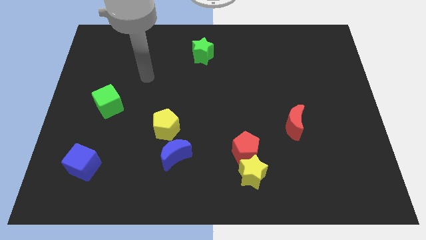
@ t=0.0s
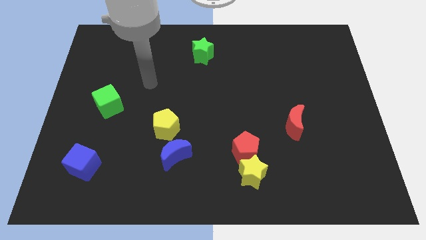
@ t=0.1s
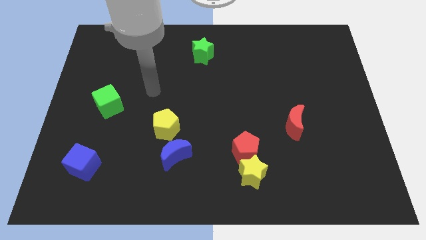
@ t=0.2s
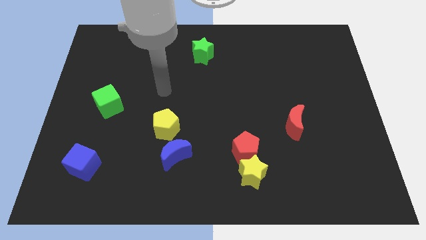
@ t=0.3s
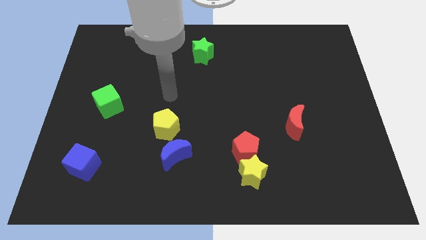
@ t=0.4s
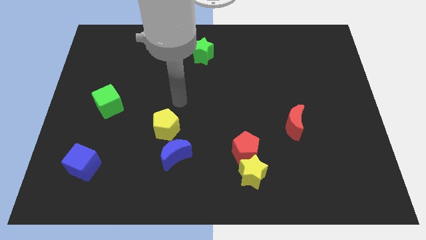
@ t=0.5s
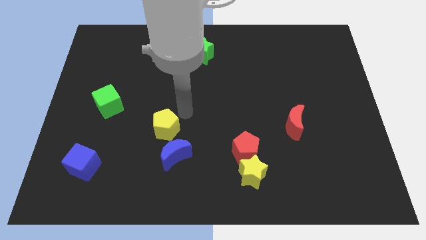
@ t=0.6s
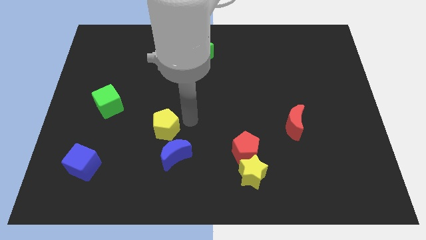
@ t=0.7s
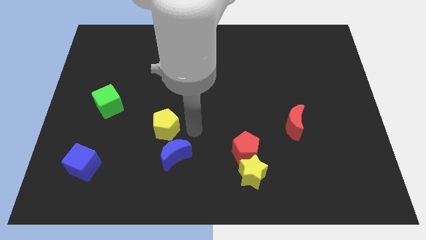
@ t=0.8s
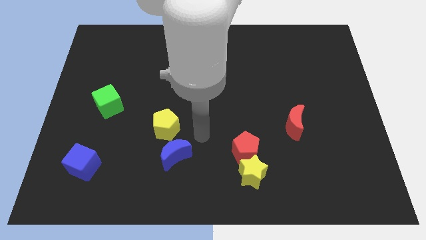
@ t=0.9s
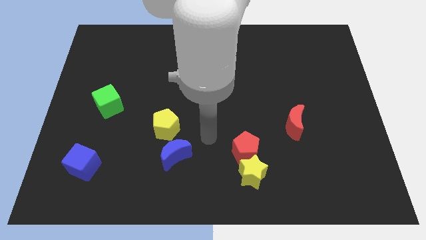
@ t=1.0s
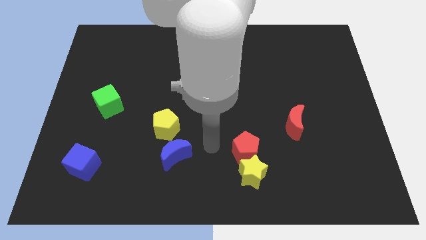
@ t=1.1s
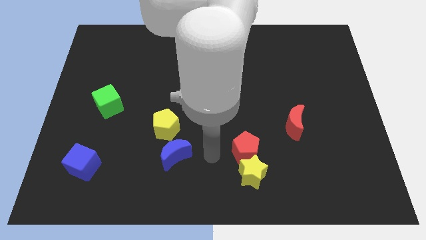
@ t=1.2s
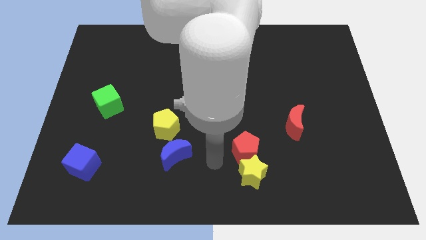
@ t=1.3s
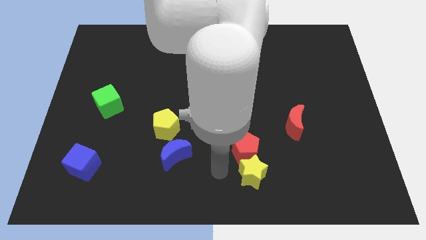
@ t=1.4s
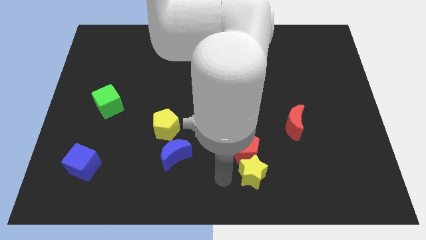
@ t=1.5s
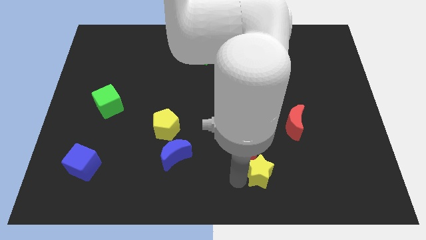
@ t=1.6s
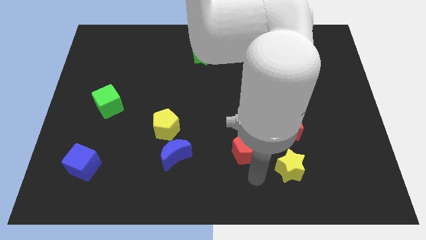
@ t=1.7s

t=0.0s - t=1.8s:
pull the red pentagon apart from the yellow star

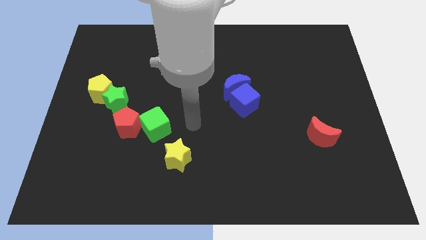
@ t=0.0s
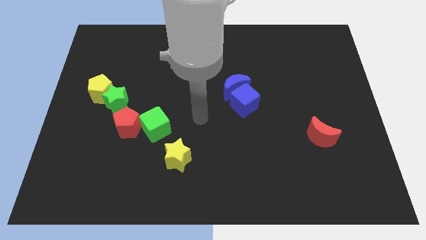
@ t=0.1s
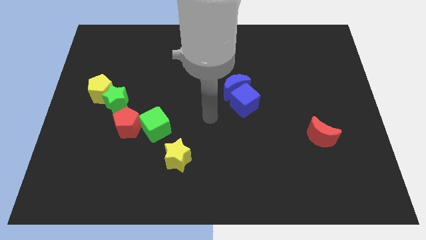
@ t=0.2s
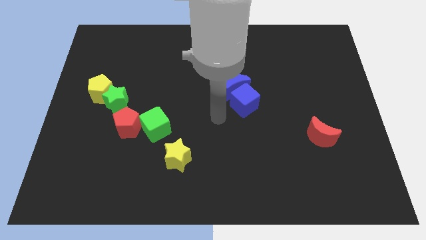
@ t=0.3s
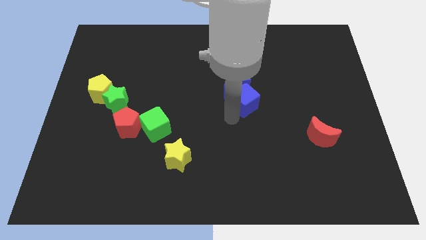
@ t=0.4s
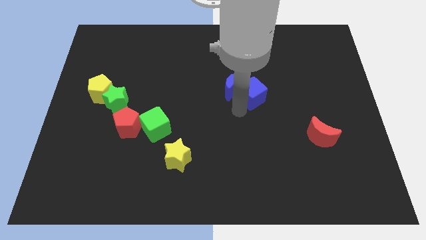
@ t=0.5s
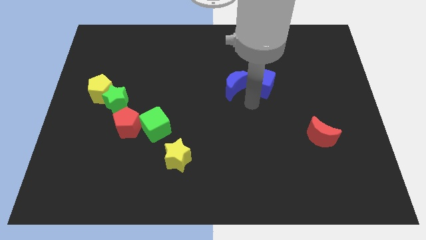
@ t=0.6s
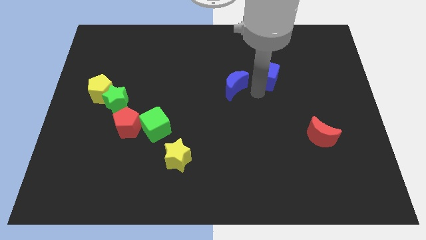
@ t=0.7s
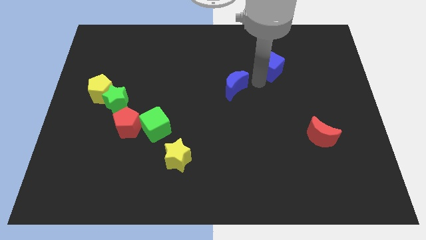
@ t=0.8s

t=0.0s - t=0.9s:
separate the blue moon from the blue cube

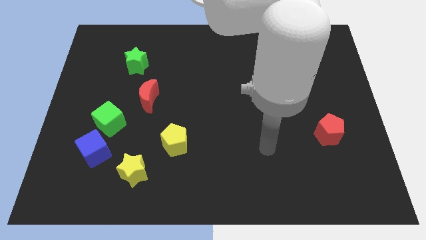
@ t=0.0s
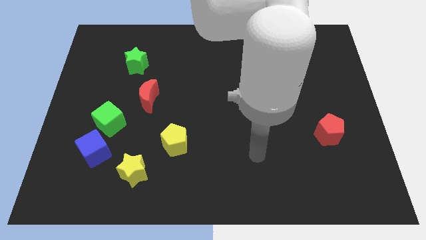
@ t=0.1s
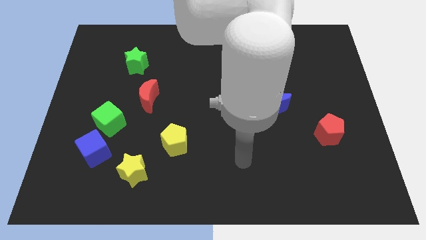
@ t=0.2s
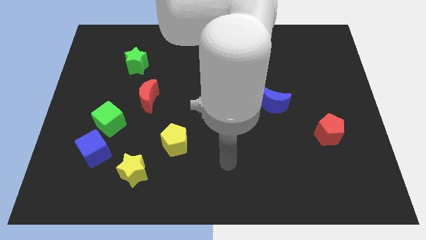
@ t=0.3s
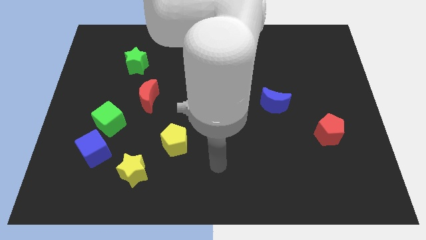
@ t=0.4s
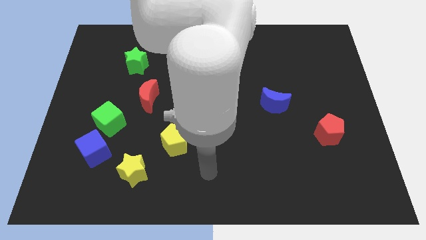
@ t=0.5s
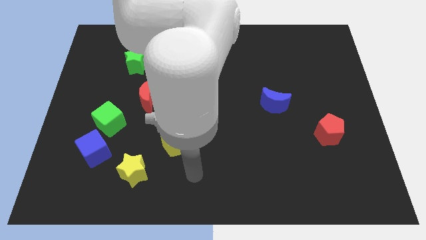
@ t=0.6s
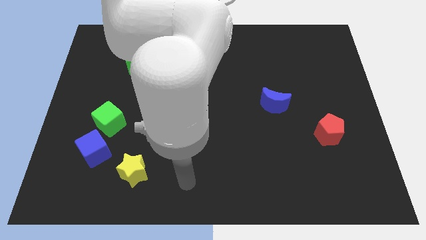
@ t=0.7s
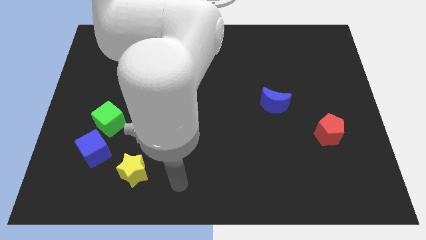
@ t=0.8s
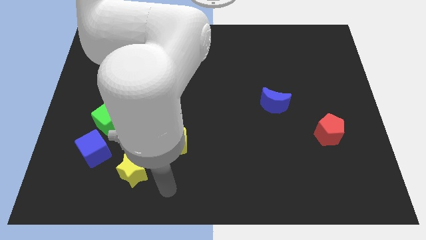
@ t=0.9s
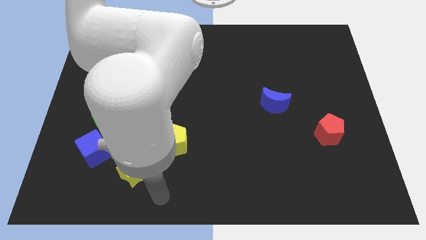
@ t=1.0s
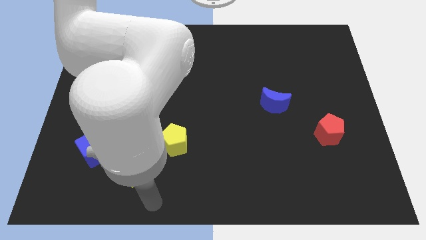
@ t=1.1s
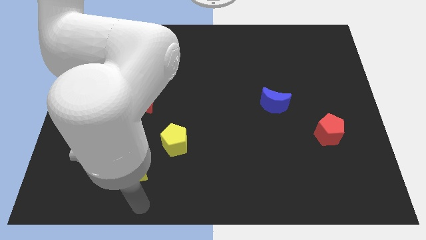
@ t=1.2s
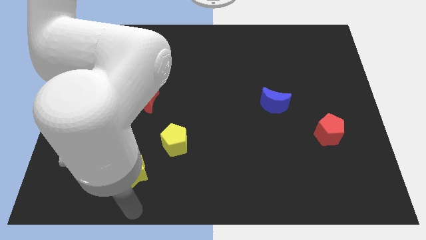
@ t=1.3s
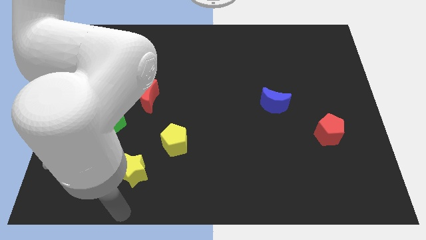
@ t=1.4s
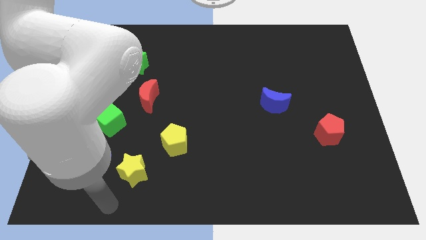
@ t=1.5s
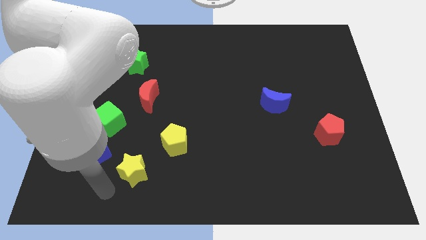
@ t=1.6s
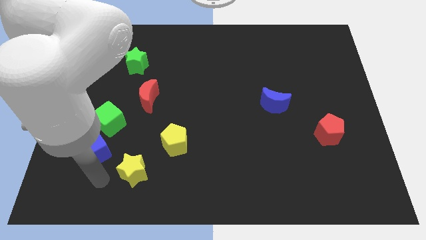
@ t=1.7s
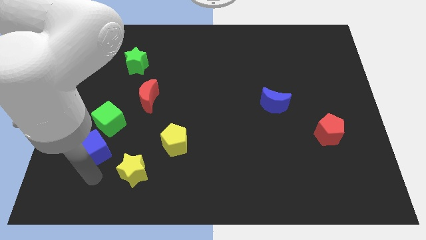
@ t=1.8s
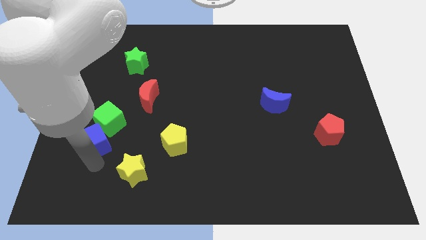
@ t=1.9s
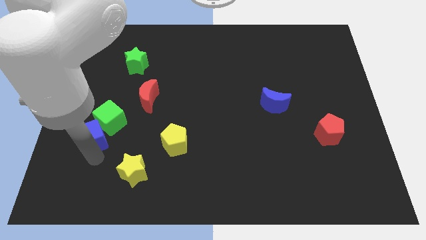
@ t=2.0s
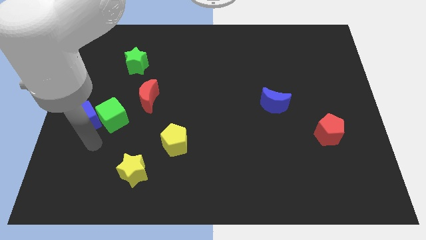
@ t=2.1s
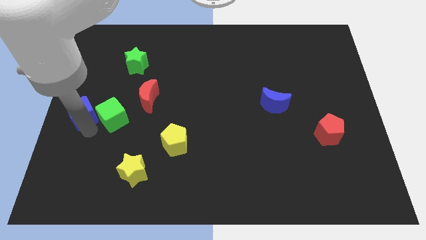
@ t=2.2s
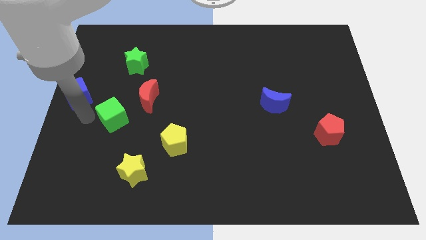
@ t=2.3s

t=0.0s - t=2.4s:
pull the green cube apart from the blue cube

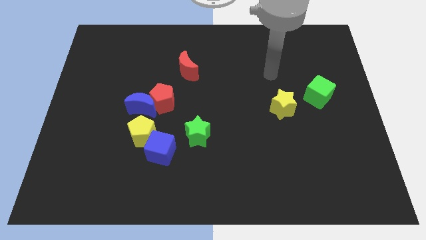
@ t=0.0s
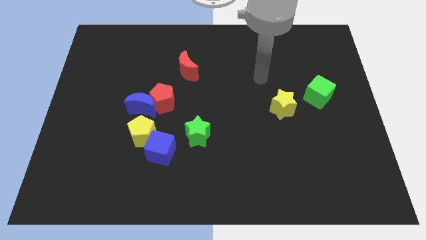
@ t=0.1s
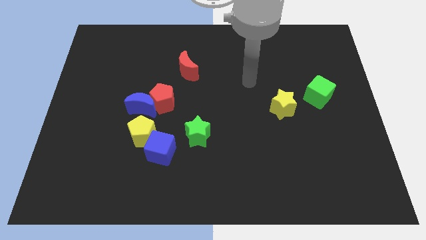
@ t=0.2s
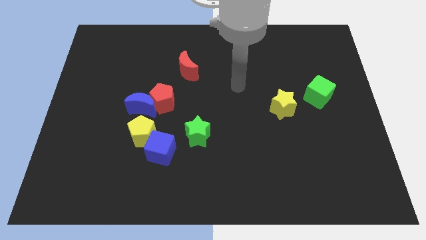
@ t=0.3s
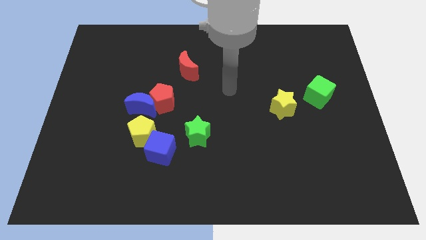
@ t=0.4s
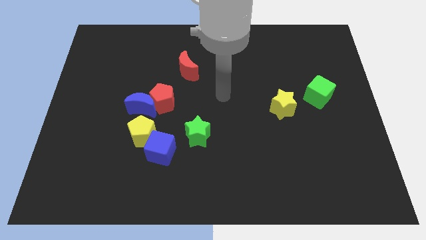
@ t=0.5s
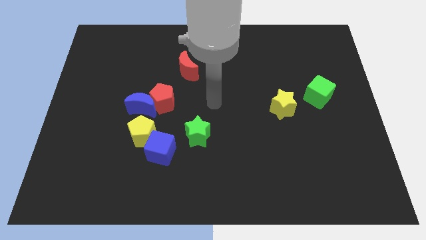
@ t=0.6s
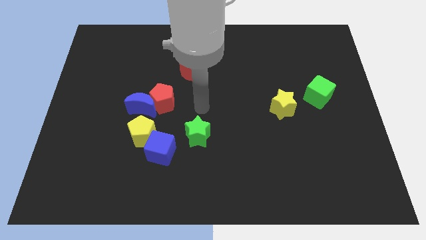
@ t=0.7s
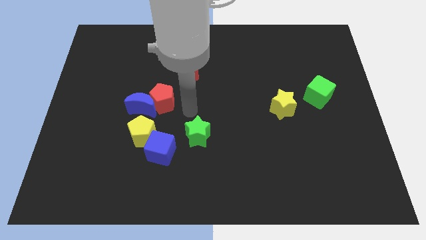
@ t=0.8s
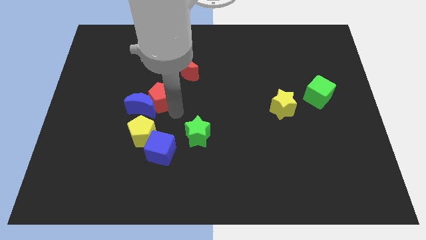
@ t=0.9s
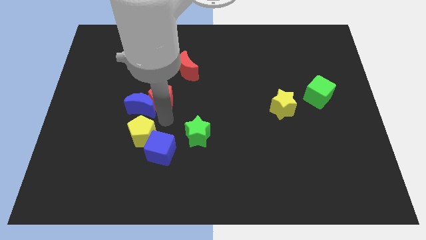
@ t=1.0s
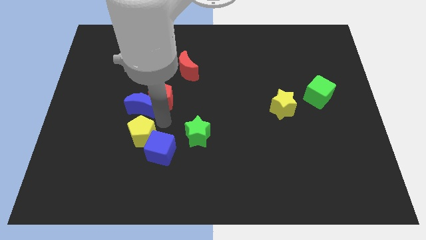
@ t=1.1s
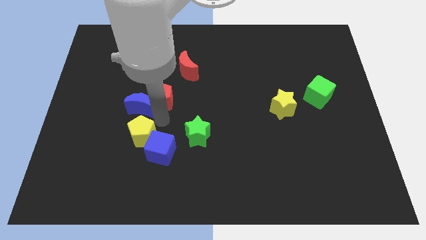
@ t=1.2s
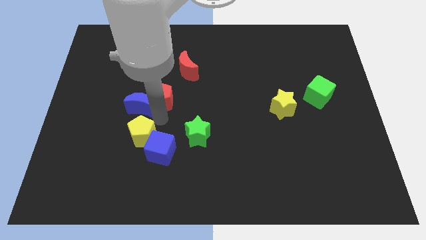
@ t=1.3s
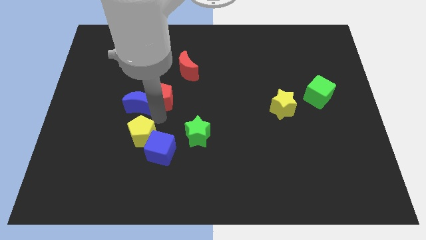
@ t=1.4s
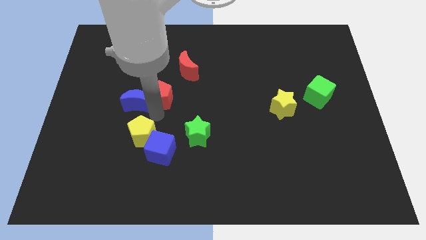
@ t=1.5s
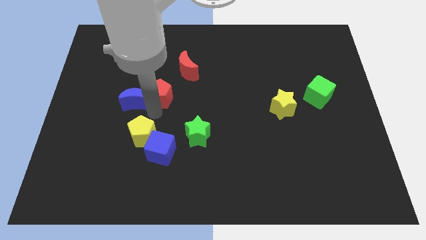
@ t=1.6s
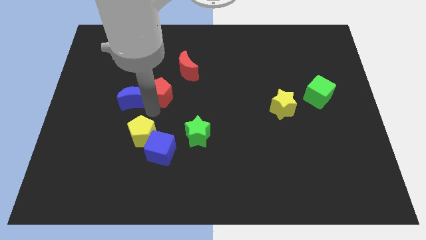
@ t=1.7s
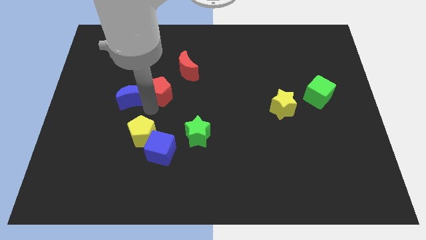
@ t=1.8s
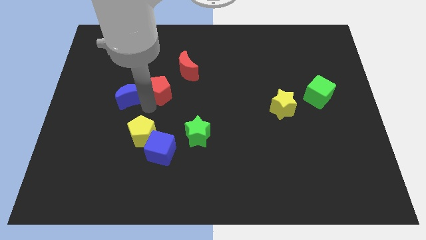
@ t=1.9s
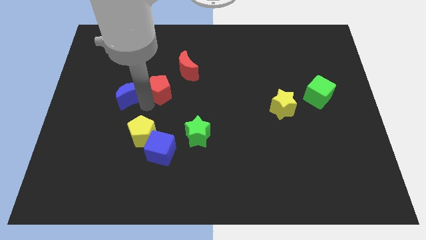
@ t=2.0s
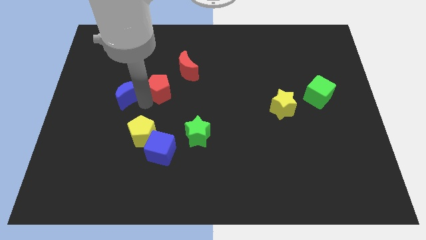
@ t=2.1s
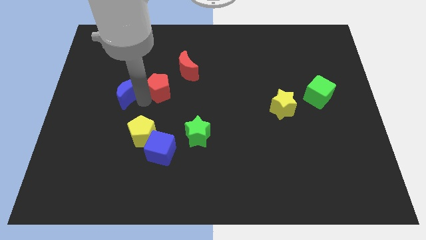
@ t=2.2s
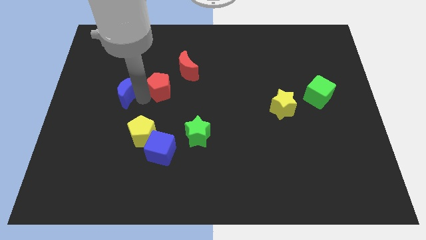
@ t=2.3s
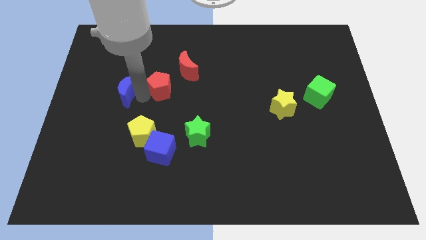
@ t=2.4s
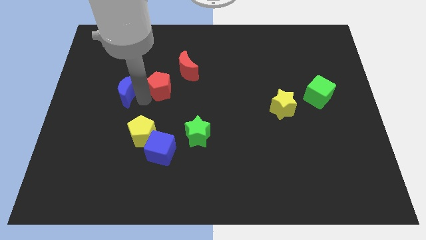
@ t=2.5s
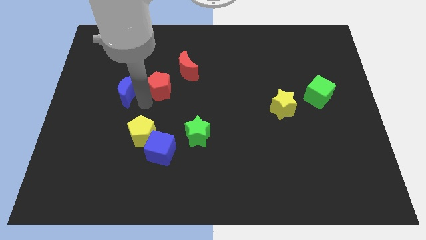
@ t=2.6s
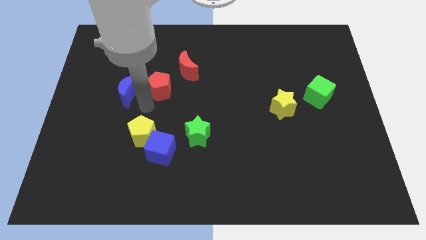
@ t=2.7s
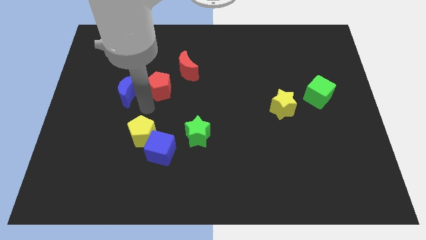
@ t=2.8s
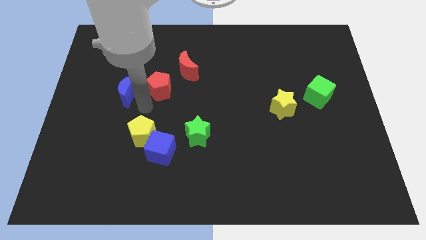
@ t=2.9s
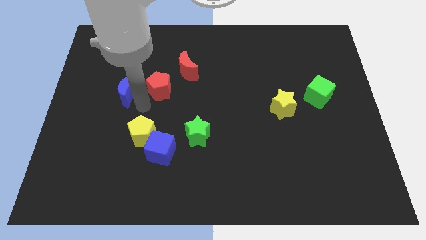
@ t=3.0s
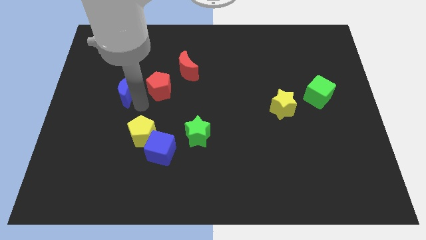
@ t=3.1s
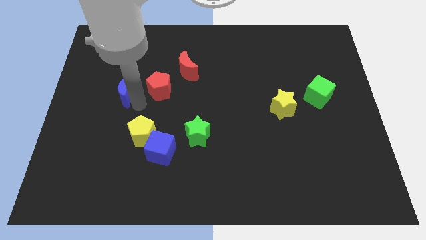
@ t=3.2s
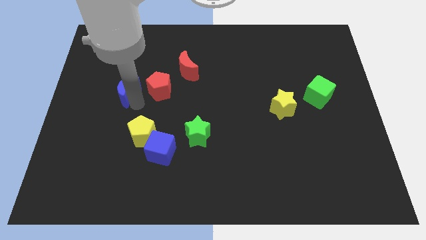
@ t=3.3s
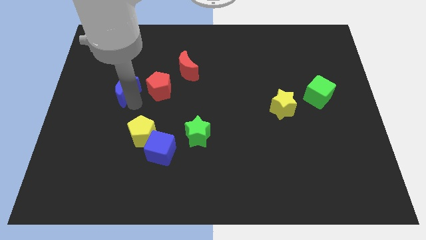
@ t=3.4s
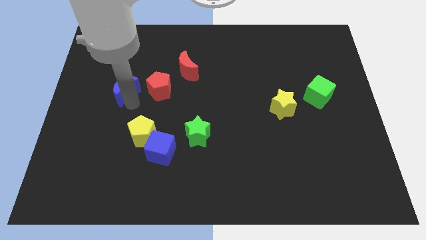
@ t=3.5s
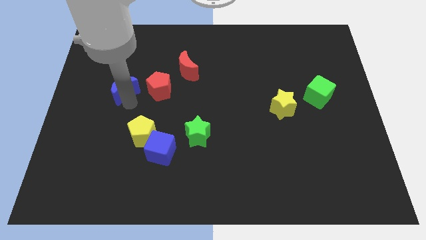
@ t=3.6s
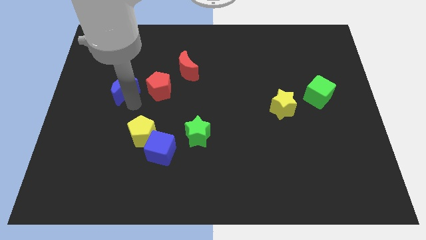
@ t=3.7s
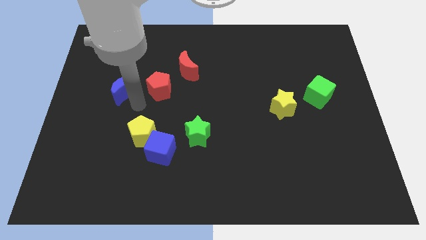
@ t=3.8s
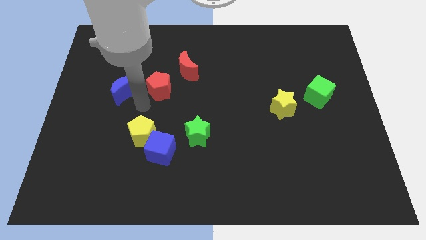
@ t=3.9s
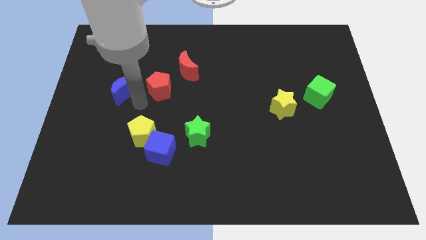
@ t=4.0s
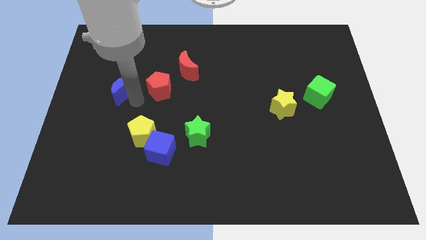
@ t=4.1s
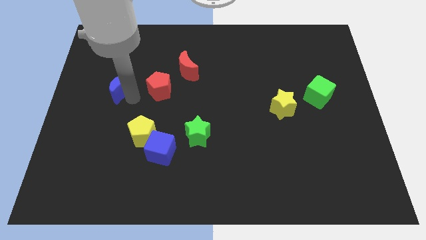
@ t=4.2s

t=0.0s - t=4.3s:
pull the blue moon apart from the red pentagon and yellow pentagon
